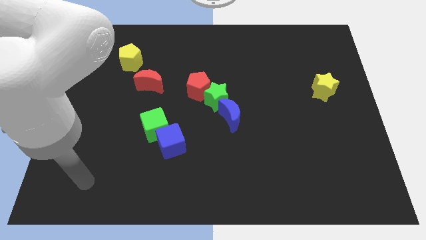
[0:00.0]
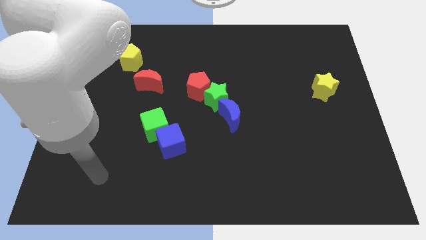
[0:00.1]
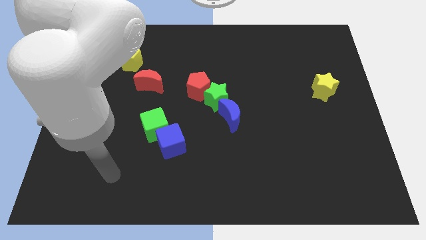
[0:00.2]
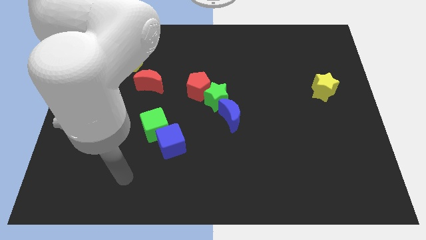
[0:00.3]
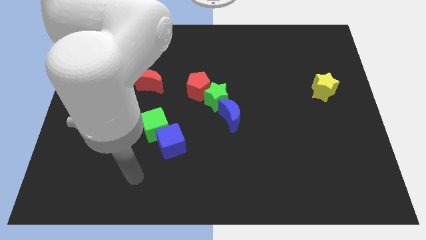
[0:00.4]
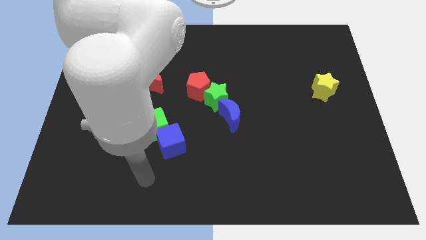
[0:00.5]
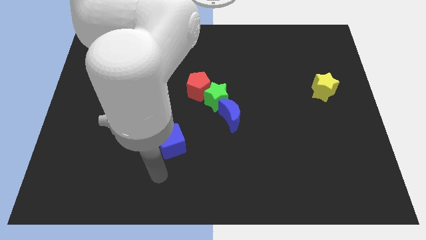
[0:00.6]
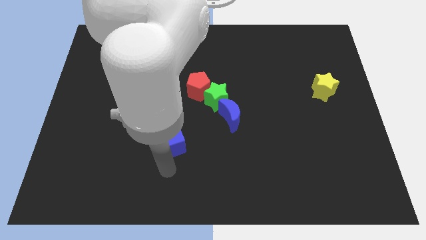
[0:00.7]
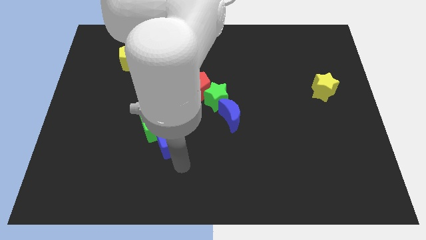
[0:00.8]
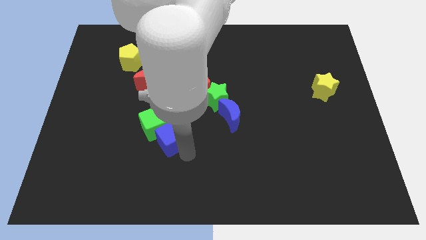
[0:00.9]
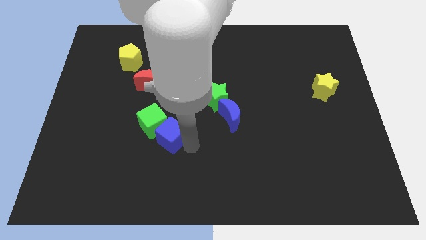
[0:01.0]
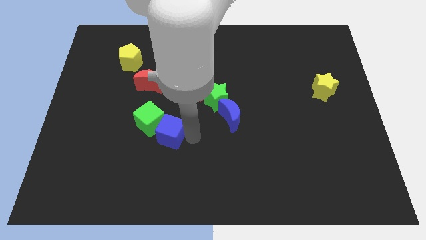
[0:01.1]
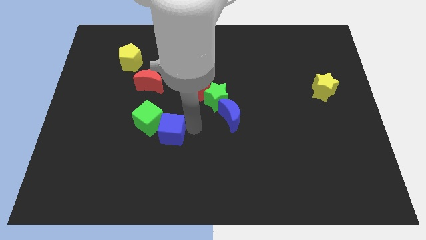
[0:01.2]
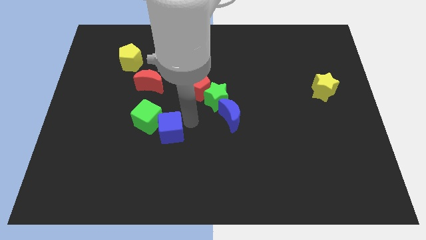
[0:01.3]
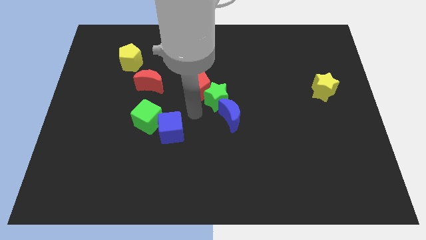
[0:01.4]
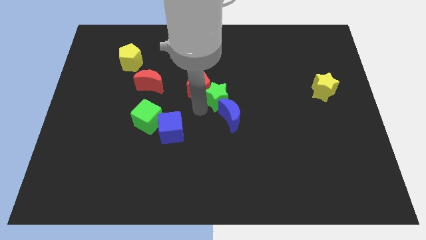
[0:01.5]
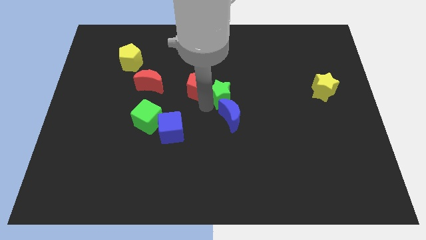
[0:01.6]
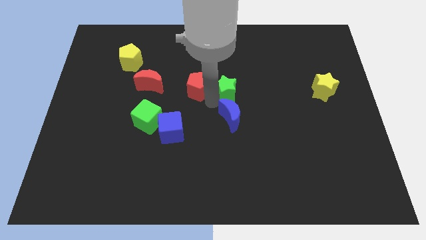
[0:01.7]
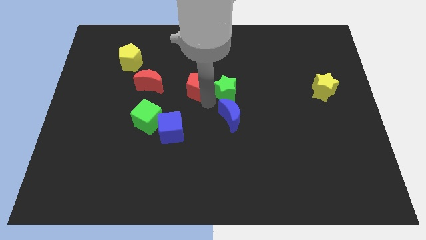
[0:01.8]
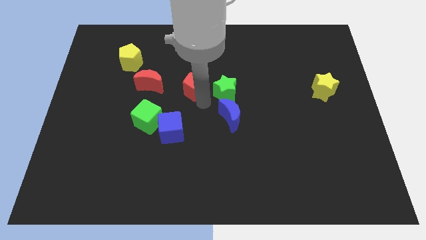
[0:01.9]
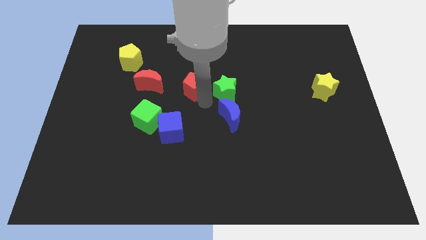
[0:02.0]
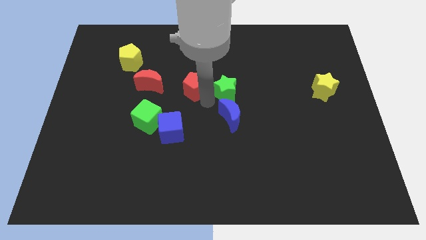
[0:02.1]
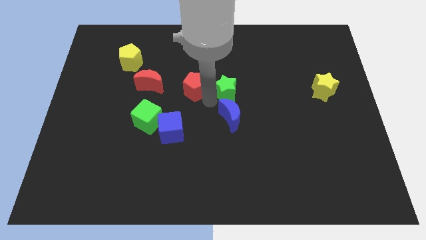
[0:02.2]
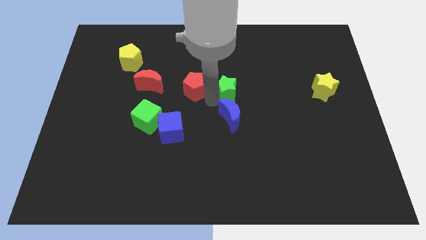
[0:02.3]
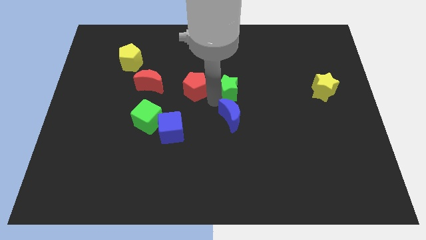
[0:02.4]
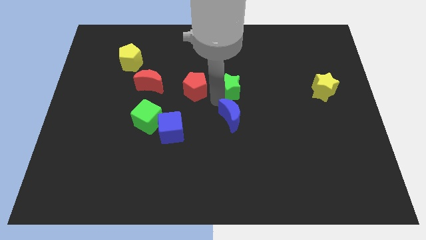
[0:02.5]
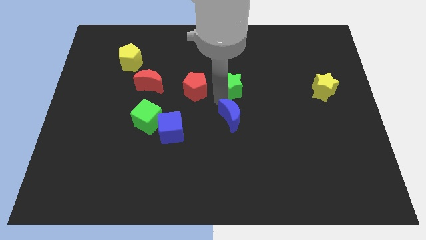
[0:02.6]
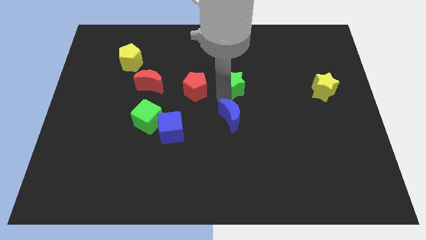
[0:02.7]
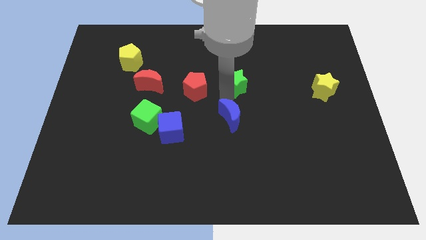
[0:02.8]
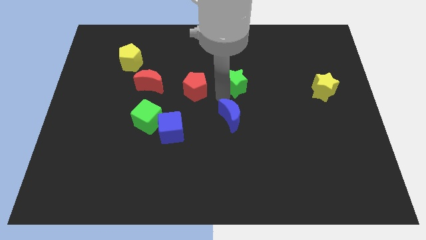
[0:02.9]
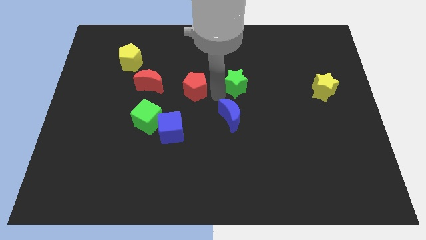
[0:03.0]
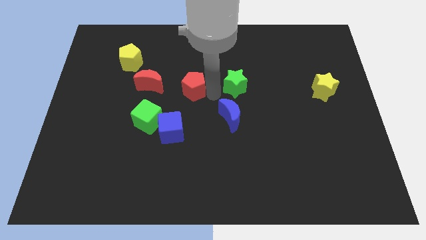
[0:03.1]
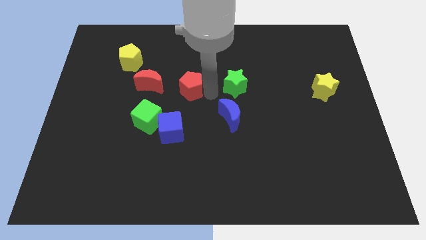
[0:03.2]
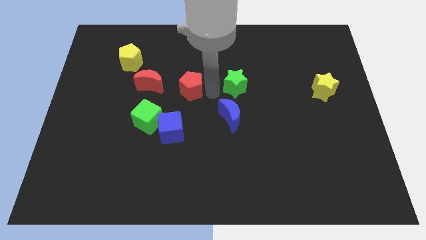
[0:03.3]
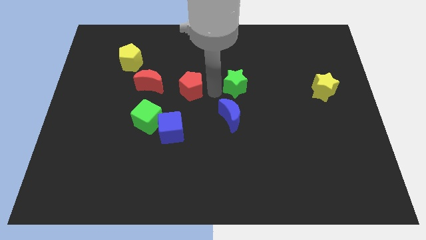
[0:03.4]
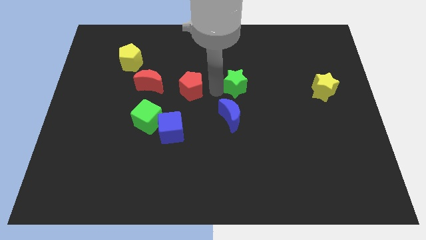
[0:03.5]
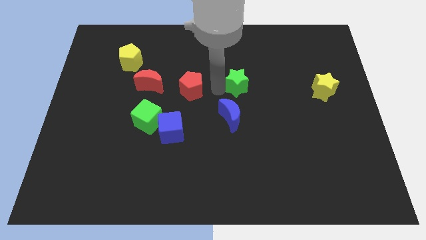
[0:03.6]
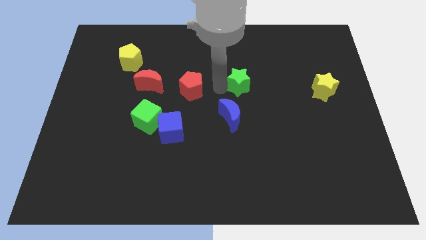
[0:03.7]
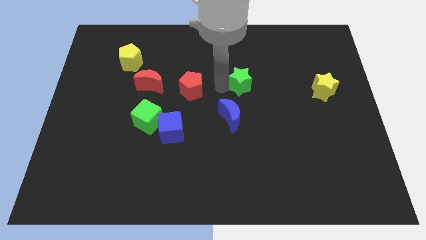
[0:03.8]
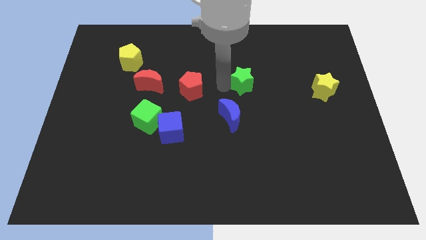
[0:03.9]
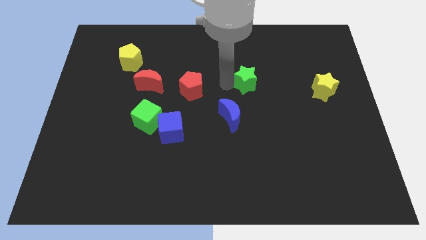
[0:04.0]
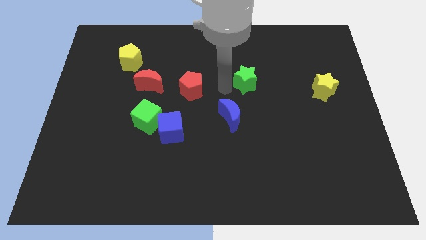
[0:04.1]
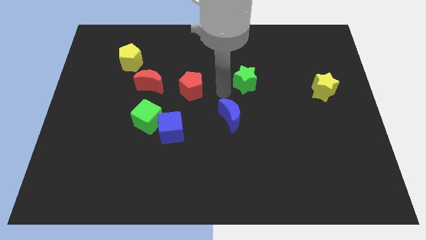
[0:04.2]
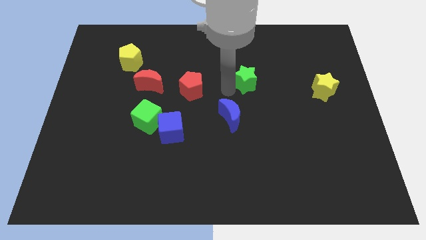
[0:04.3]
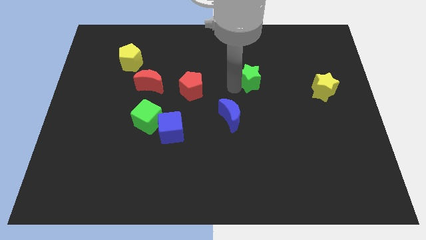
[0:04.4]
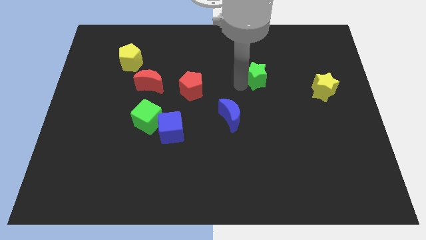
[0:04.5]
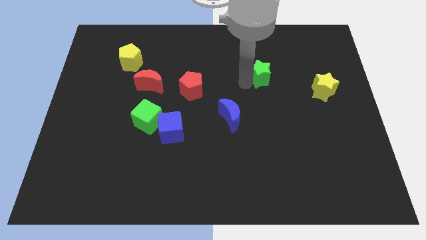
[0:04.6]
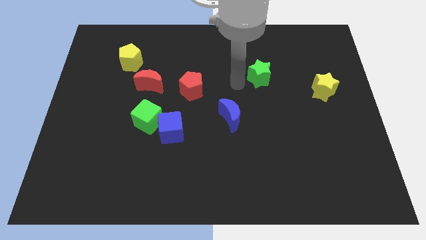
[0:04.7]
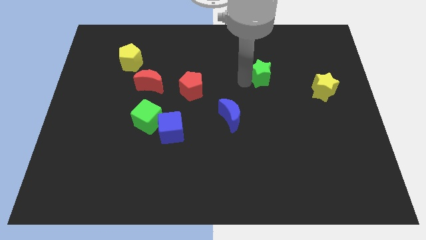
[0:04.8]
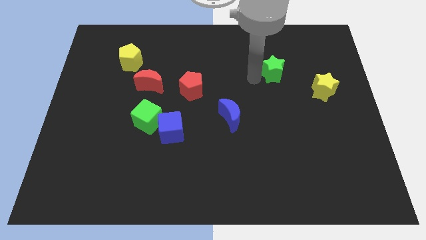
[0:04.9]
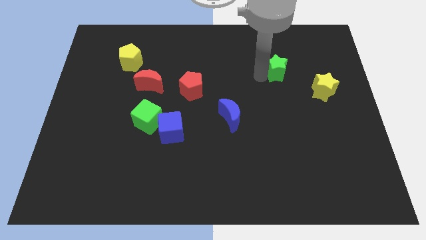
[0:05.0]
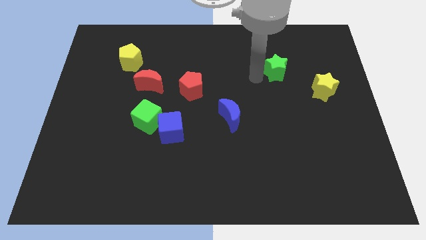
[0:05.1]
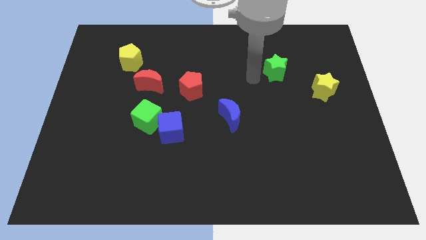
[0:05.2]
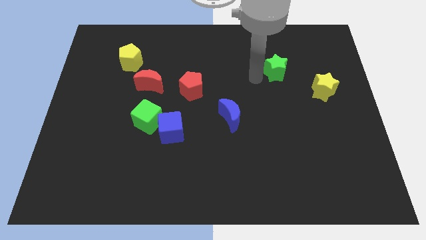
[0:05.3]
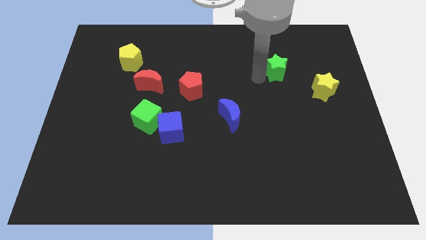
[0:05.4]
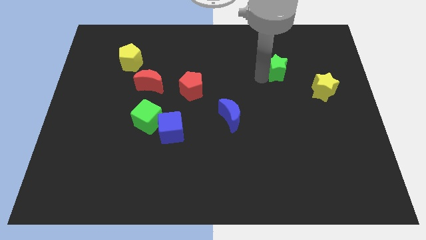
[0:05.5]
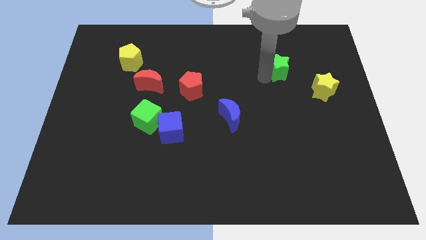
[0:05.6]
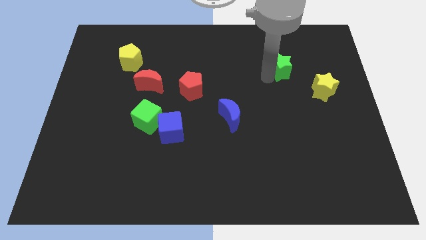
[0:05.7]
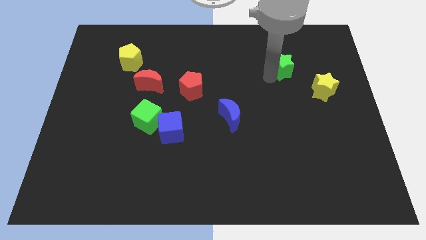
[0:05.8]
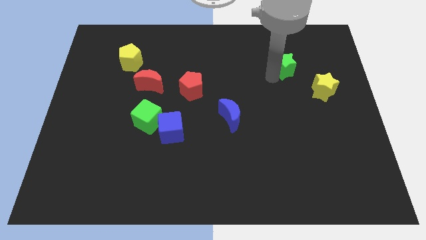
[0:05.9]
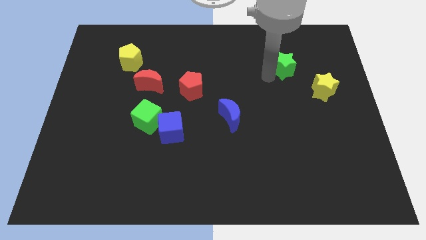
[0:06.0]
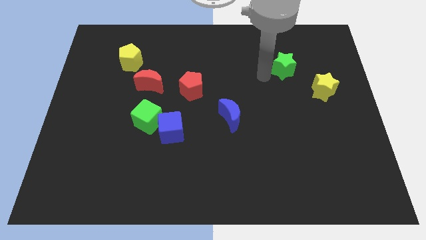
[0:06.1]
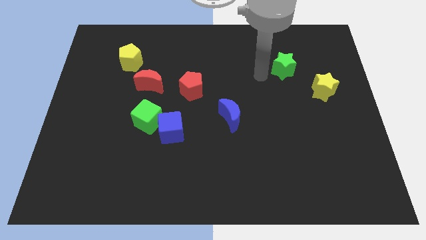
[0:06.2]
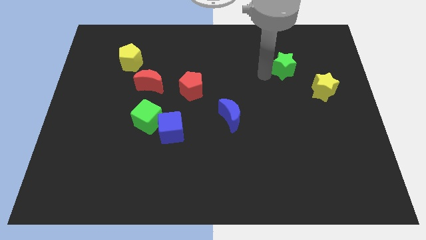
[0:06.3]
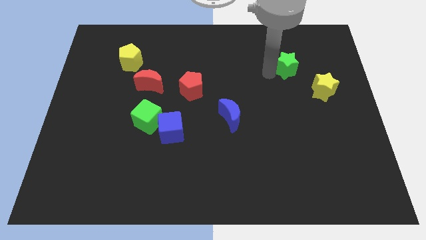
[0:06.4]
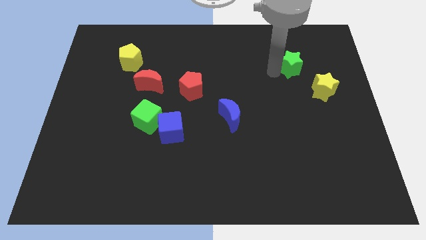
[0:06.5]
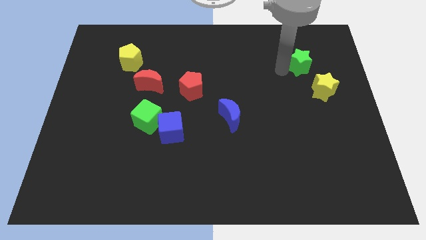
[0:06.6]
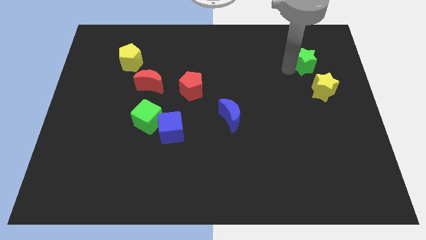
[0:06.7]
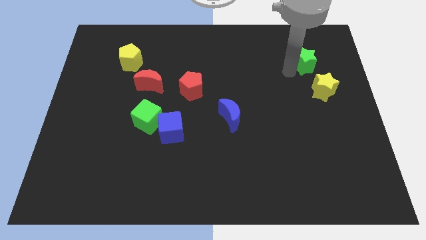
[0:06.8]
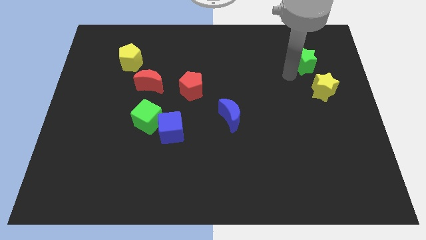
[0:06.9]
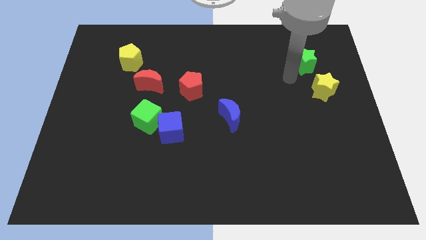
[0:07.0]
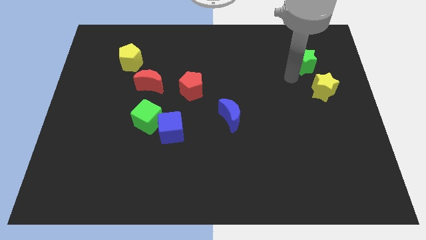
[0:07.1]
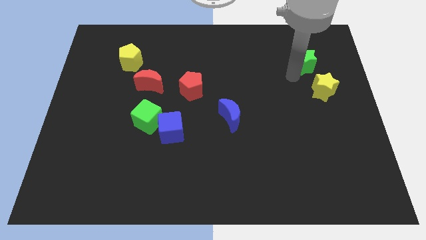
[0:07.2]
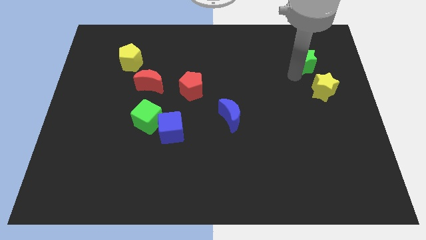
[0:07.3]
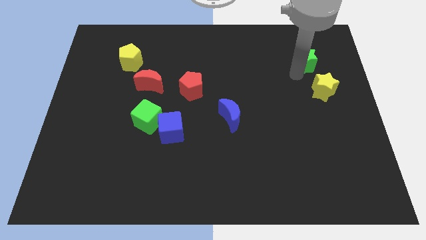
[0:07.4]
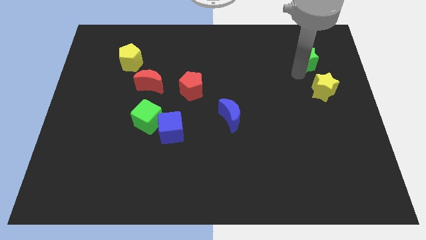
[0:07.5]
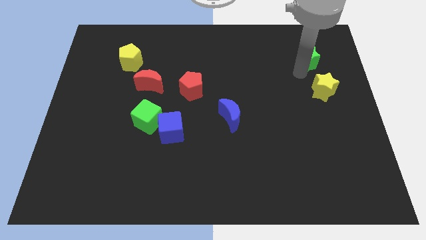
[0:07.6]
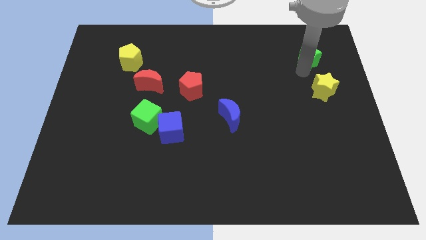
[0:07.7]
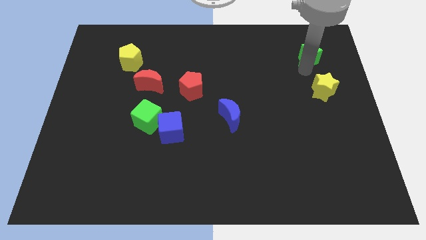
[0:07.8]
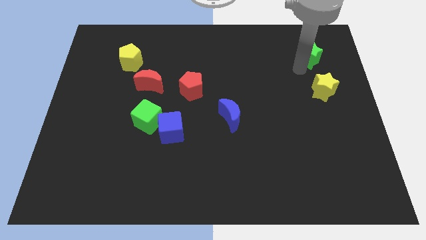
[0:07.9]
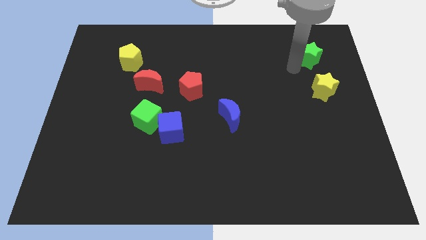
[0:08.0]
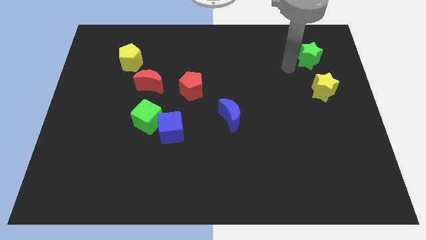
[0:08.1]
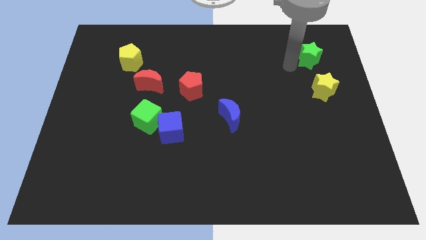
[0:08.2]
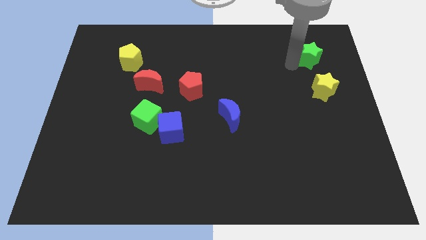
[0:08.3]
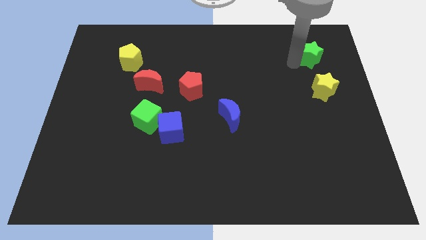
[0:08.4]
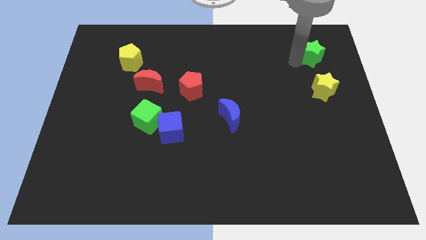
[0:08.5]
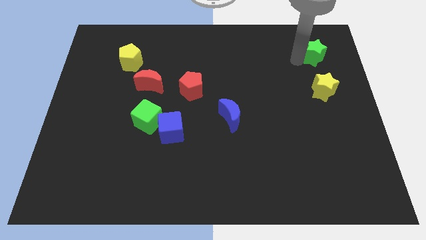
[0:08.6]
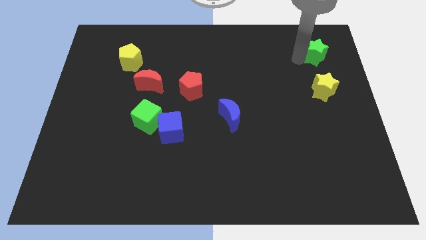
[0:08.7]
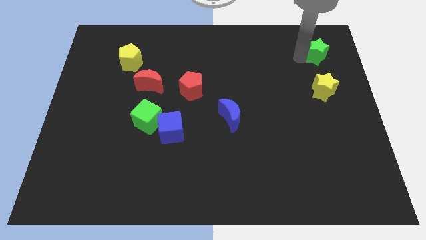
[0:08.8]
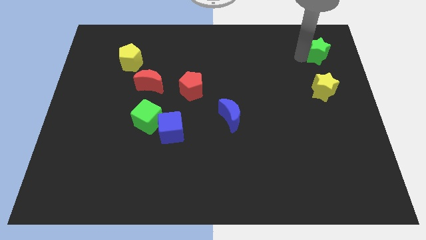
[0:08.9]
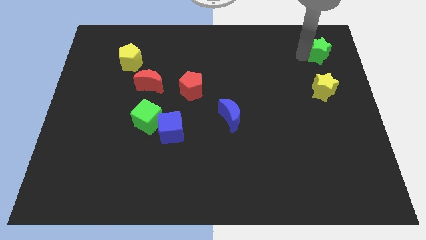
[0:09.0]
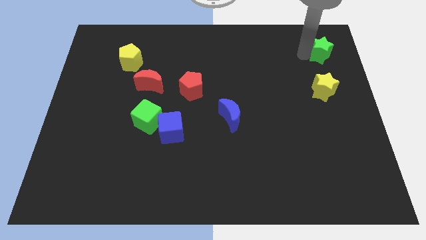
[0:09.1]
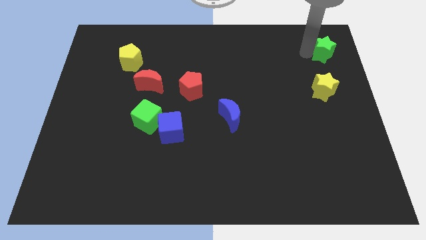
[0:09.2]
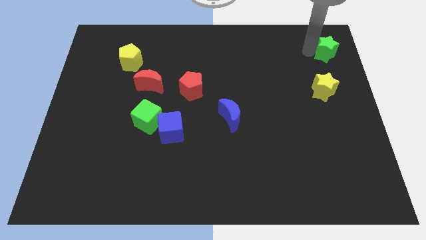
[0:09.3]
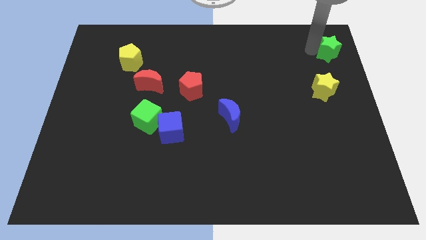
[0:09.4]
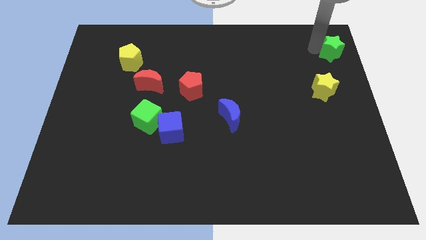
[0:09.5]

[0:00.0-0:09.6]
move the green star to the top right of the board
